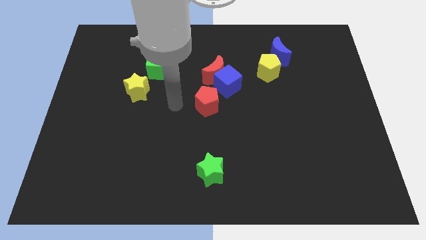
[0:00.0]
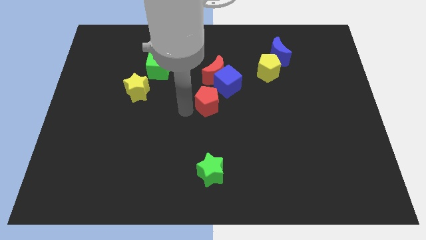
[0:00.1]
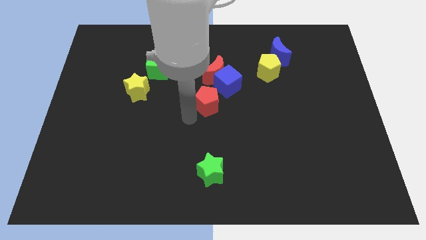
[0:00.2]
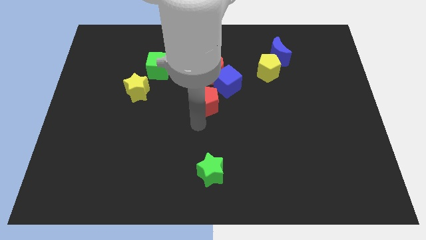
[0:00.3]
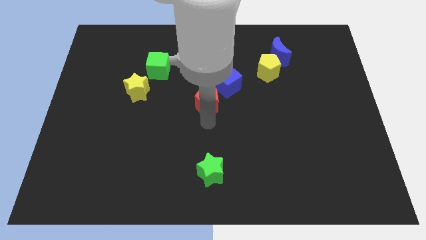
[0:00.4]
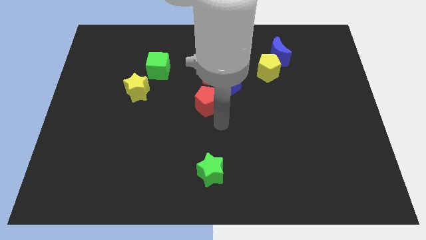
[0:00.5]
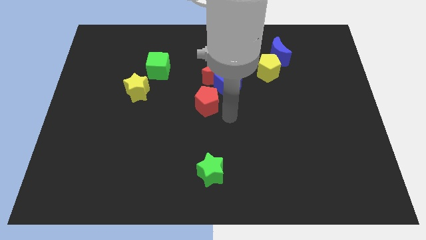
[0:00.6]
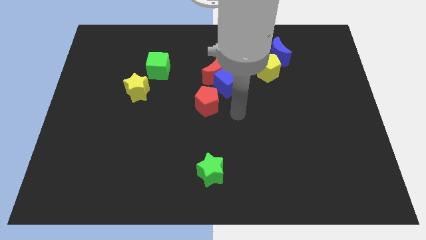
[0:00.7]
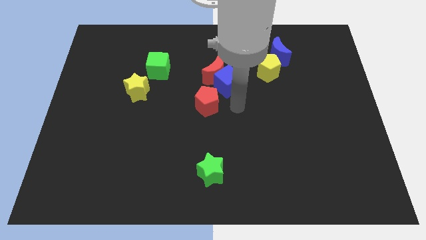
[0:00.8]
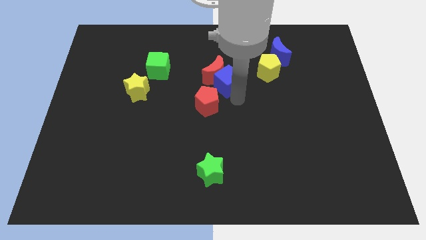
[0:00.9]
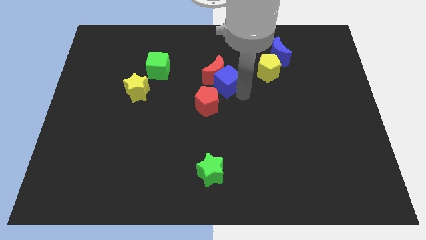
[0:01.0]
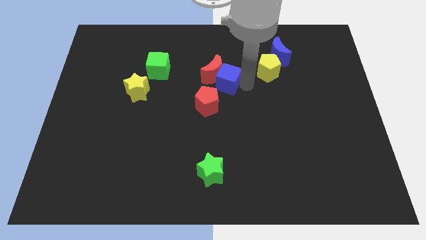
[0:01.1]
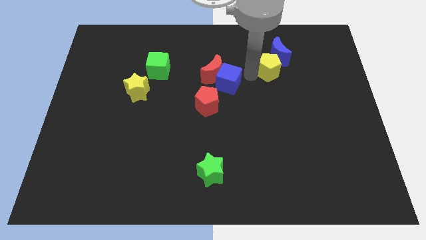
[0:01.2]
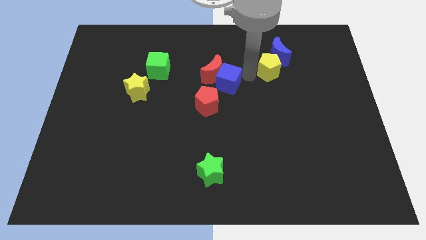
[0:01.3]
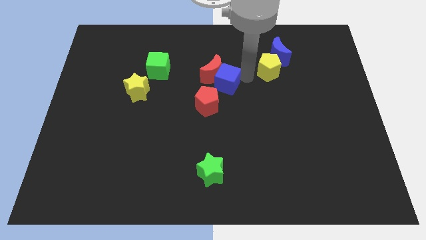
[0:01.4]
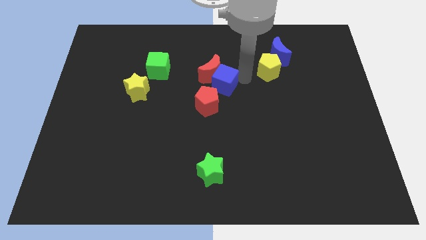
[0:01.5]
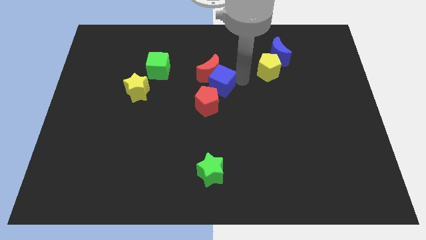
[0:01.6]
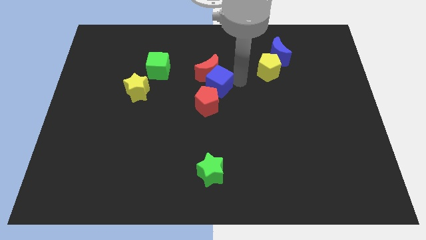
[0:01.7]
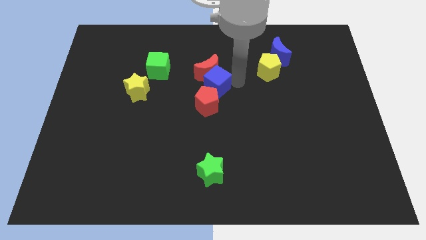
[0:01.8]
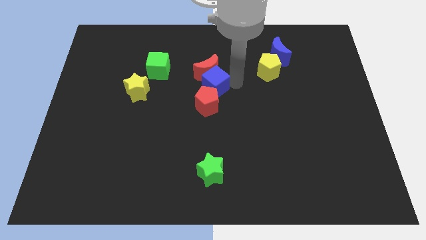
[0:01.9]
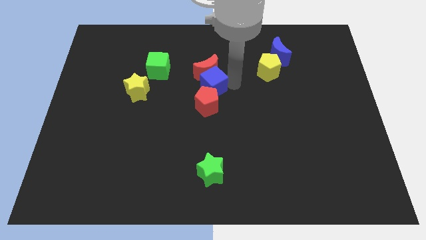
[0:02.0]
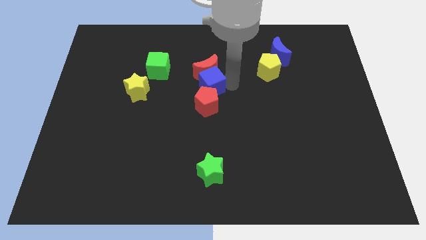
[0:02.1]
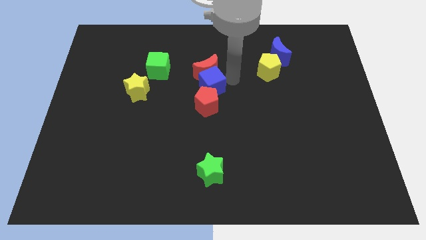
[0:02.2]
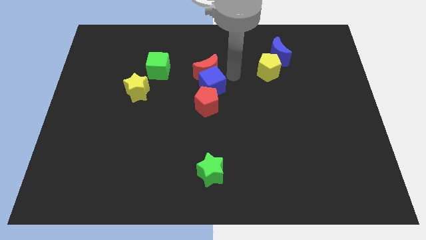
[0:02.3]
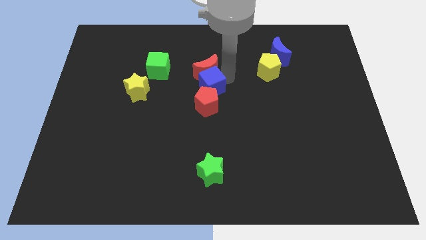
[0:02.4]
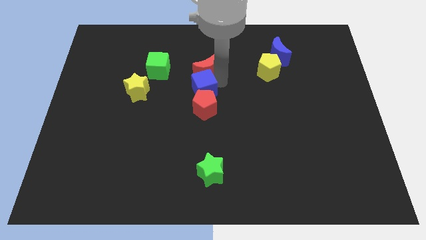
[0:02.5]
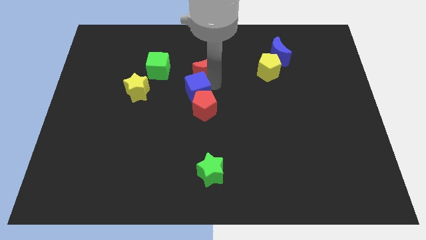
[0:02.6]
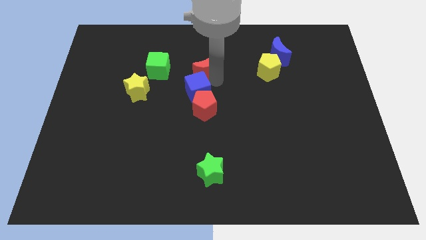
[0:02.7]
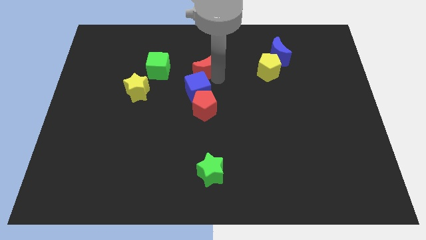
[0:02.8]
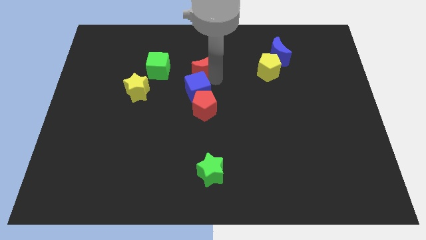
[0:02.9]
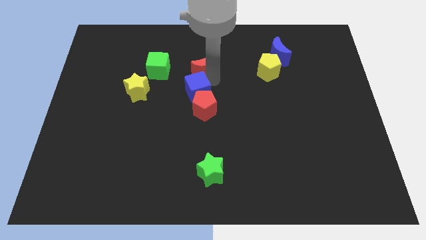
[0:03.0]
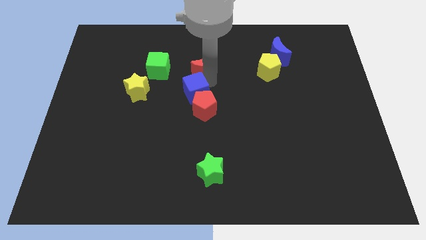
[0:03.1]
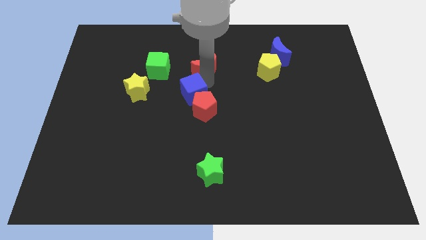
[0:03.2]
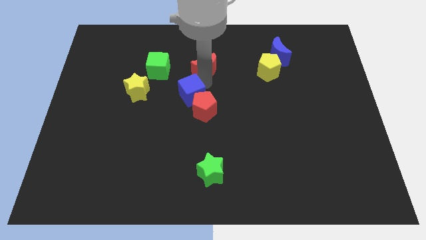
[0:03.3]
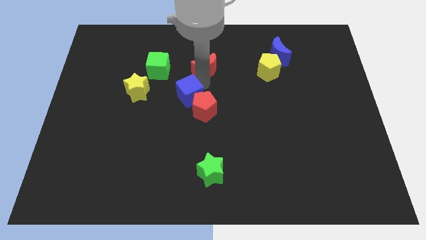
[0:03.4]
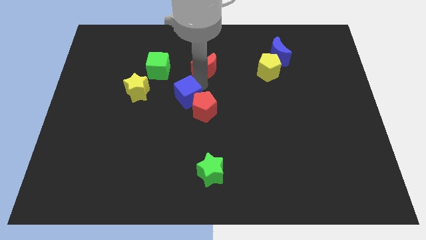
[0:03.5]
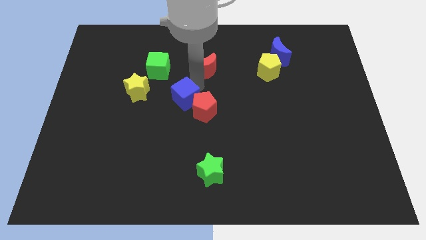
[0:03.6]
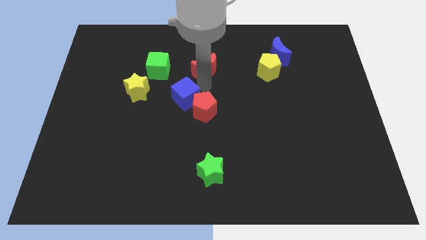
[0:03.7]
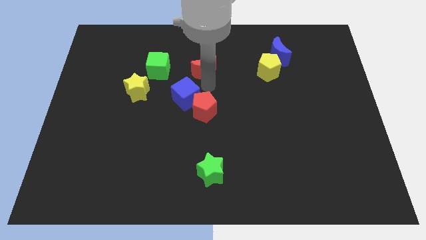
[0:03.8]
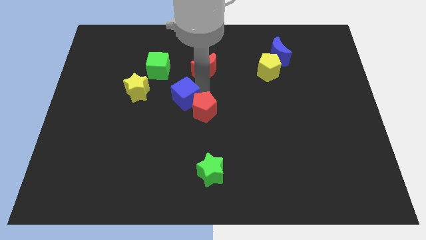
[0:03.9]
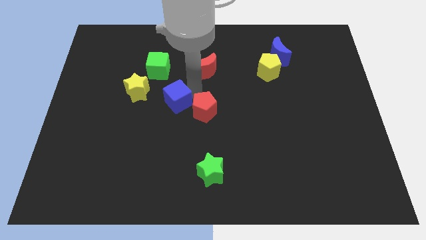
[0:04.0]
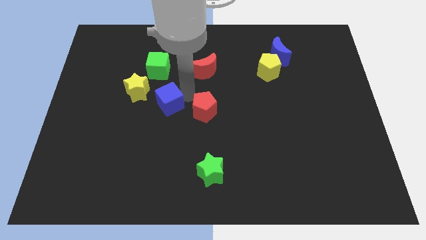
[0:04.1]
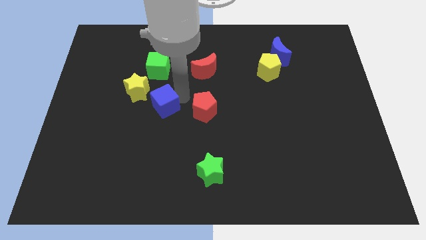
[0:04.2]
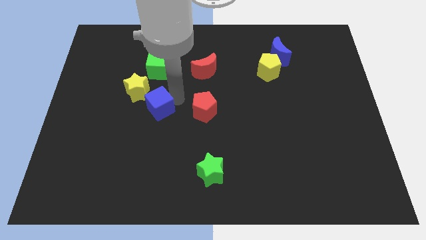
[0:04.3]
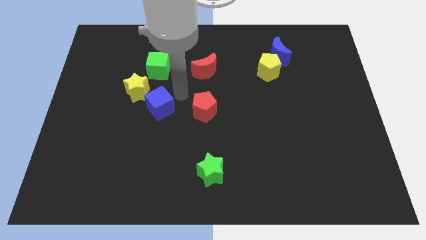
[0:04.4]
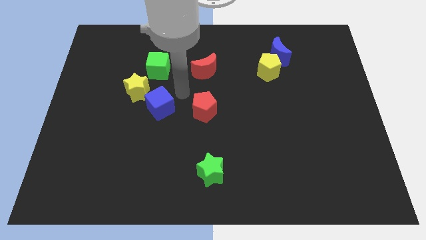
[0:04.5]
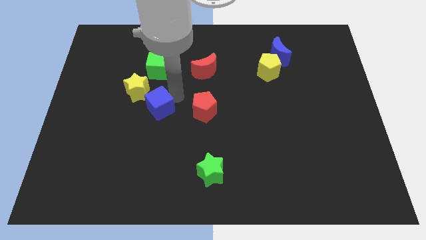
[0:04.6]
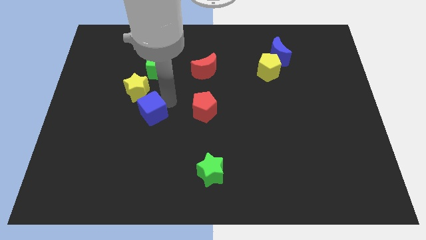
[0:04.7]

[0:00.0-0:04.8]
slide the blue cube below the yellow star

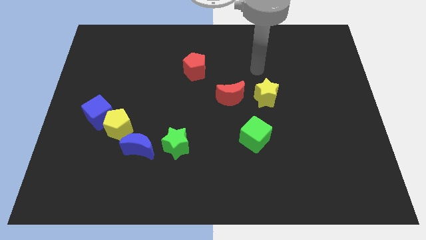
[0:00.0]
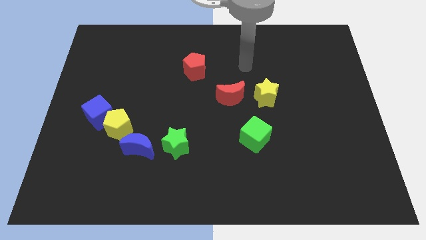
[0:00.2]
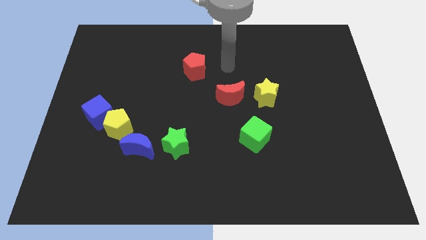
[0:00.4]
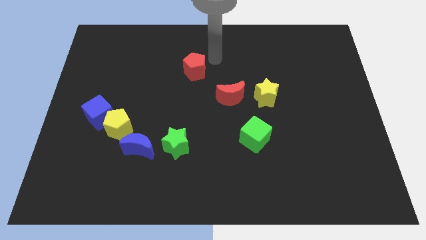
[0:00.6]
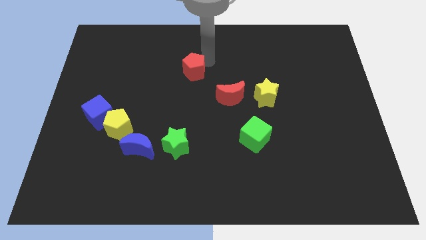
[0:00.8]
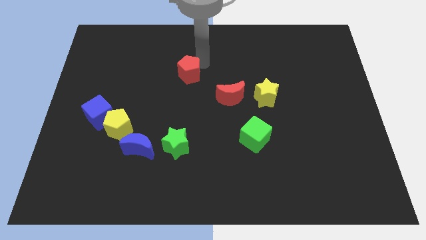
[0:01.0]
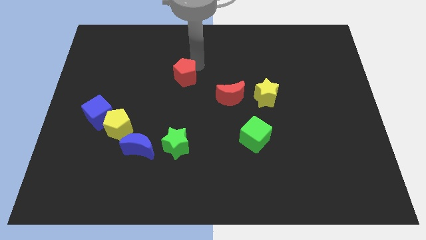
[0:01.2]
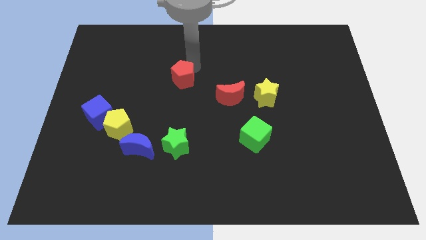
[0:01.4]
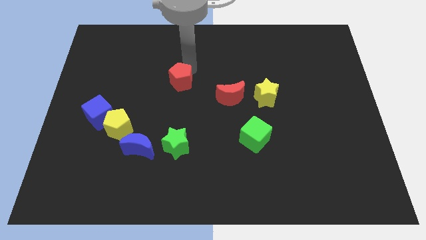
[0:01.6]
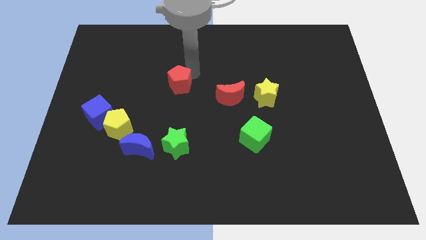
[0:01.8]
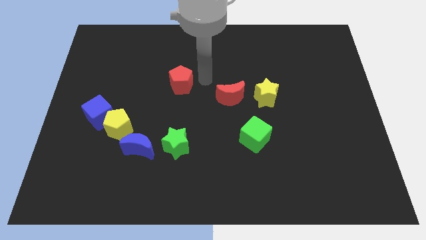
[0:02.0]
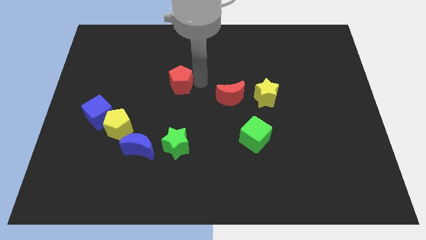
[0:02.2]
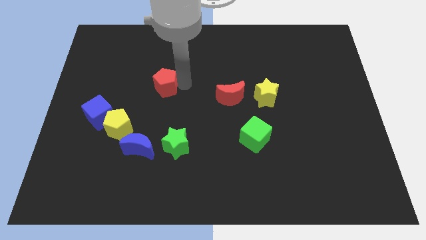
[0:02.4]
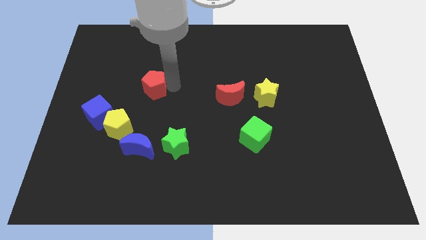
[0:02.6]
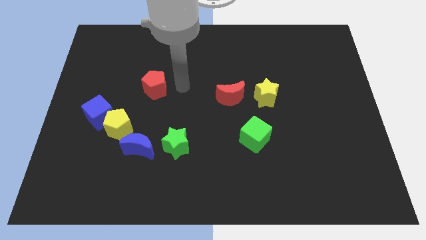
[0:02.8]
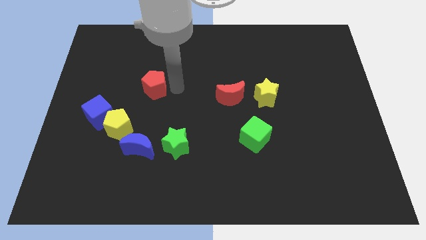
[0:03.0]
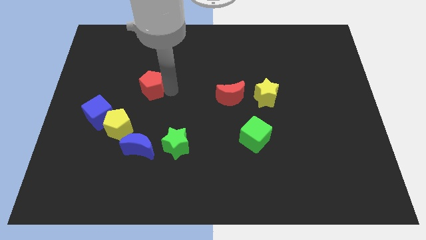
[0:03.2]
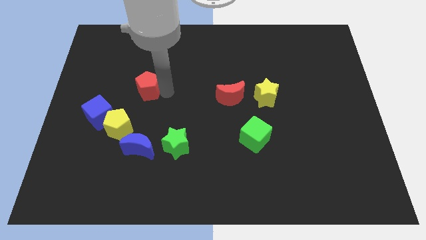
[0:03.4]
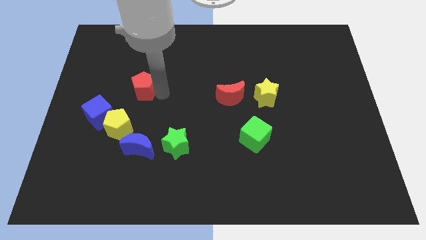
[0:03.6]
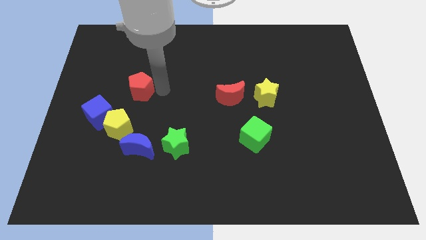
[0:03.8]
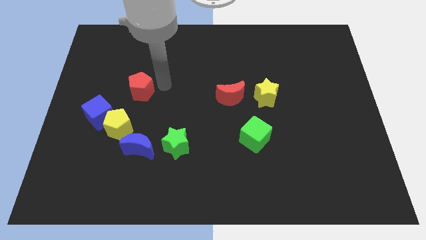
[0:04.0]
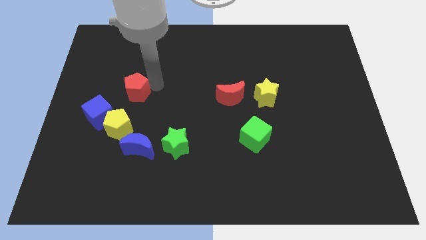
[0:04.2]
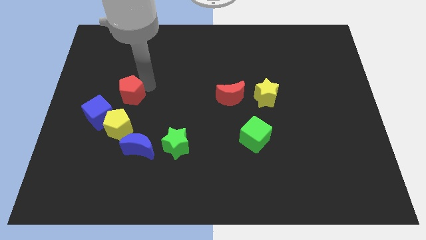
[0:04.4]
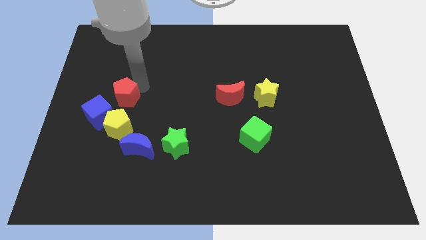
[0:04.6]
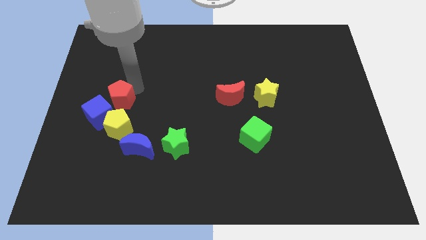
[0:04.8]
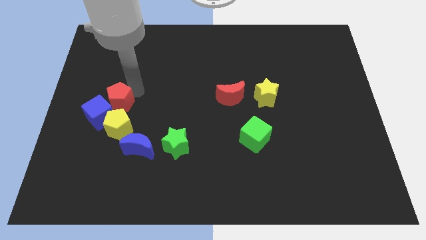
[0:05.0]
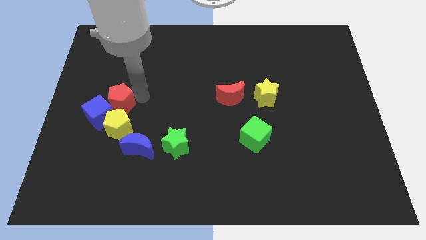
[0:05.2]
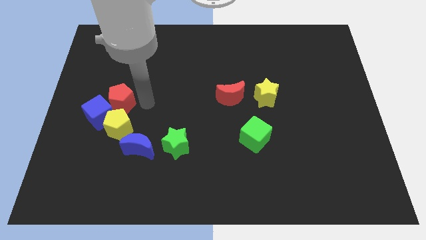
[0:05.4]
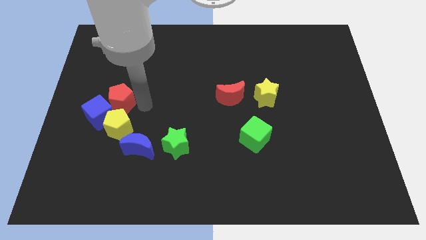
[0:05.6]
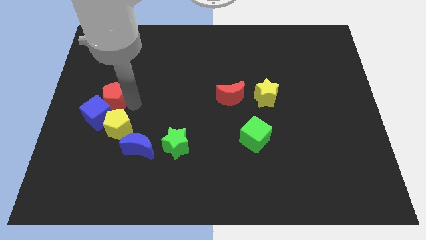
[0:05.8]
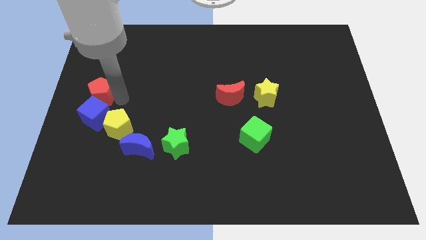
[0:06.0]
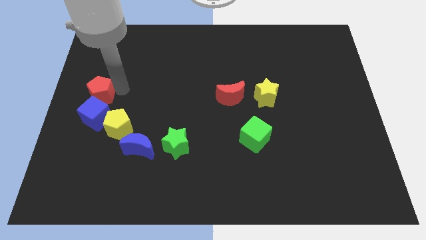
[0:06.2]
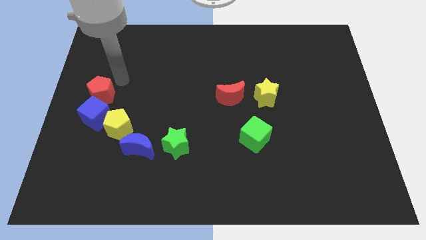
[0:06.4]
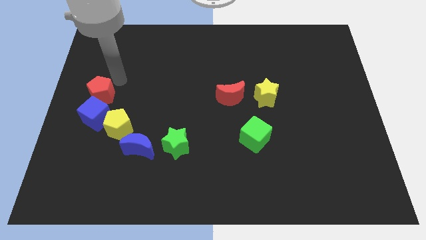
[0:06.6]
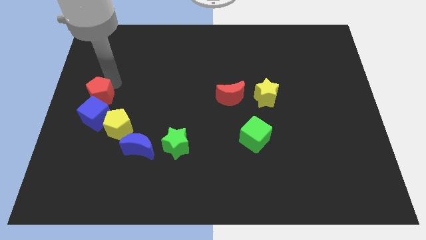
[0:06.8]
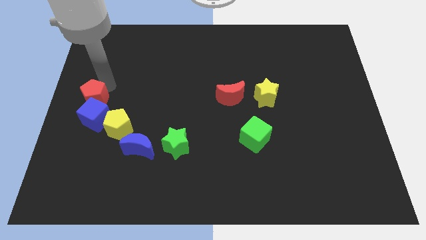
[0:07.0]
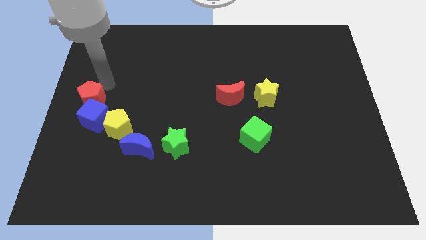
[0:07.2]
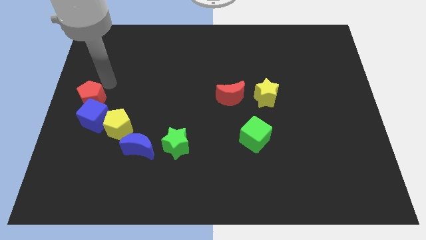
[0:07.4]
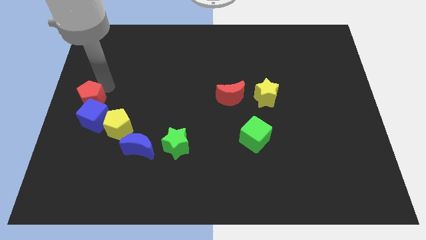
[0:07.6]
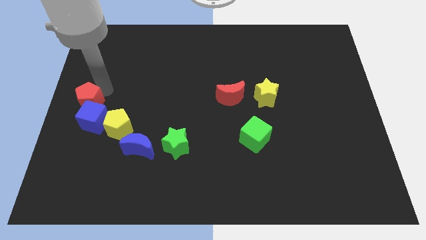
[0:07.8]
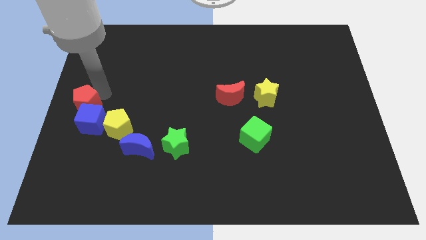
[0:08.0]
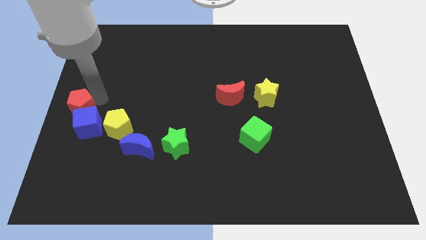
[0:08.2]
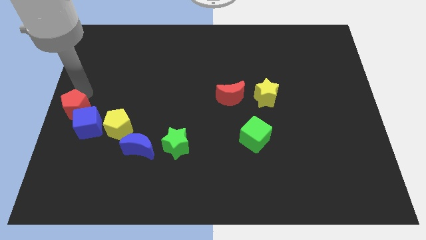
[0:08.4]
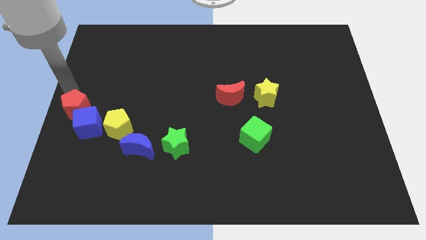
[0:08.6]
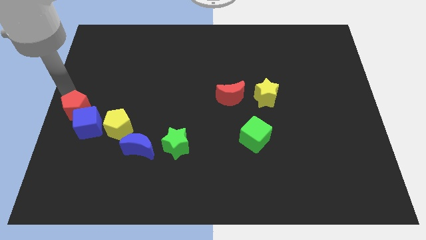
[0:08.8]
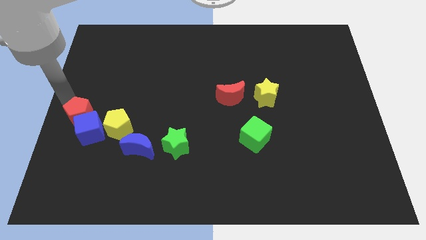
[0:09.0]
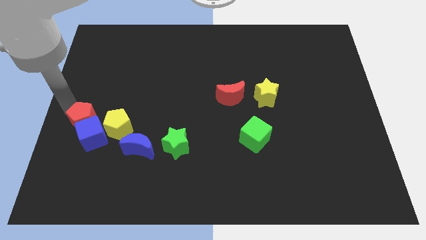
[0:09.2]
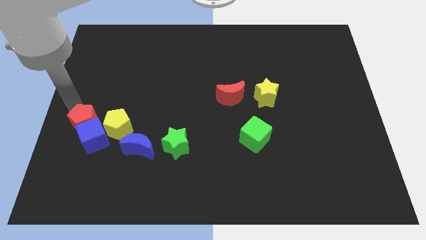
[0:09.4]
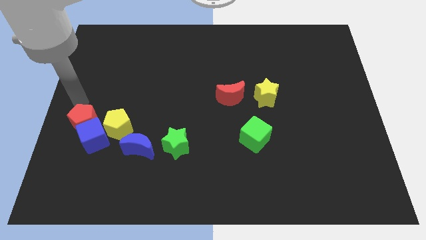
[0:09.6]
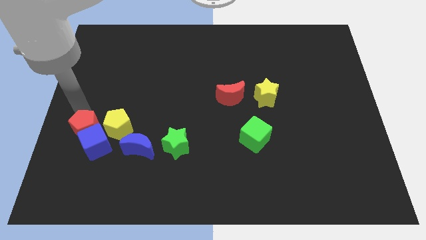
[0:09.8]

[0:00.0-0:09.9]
put the red pentagon to the bottom left side of the yellow pentagon
